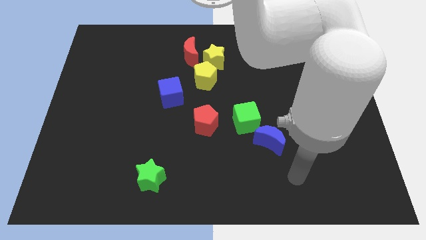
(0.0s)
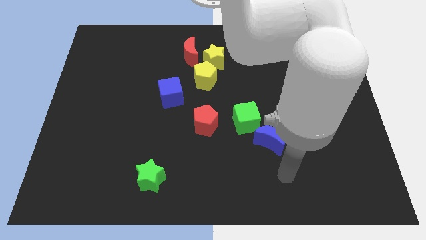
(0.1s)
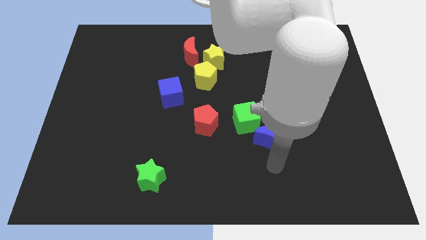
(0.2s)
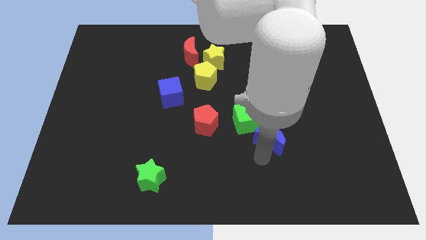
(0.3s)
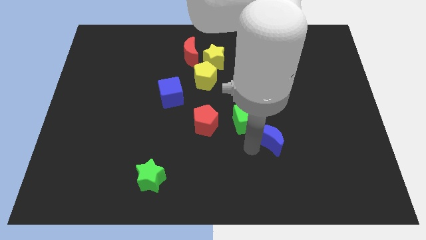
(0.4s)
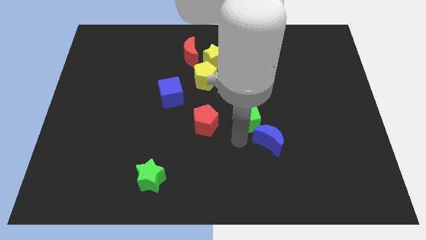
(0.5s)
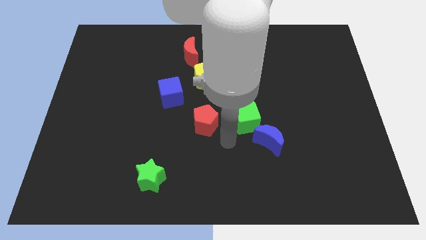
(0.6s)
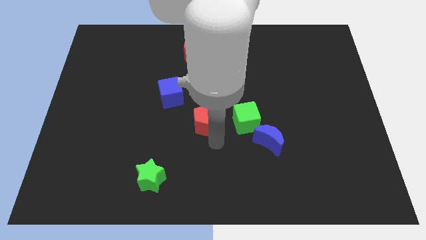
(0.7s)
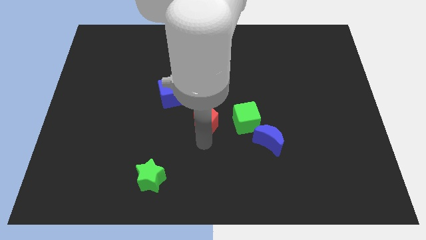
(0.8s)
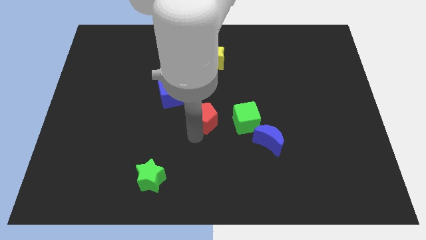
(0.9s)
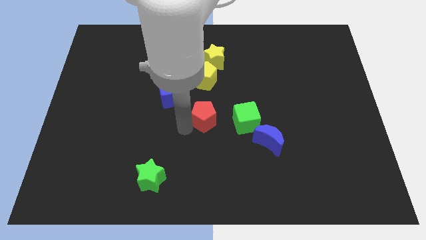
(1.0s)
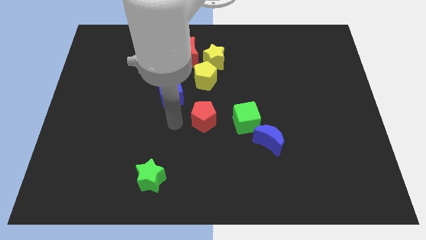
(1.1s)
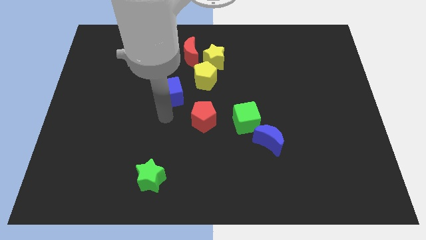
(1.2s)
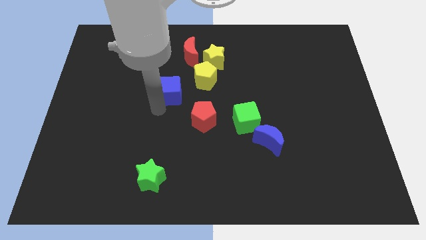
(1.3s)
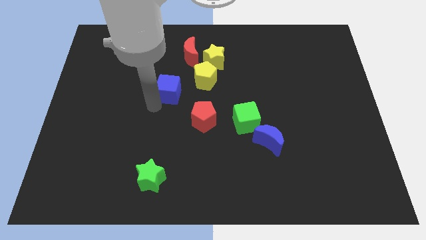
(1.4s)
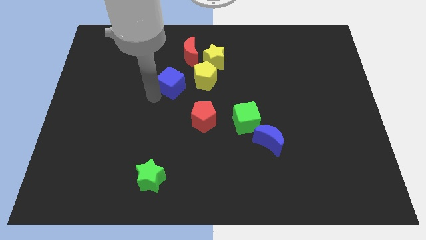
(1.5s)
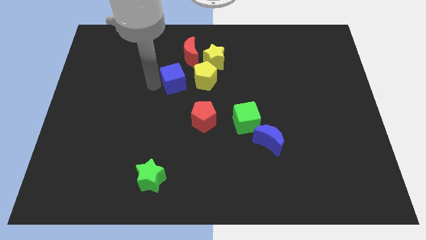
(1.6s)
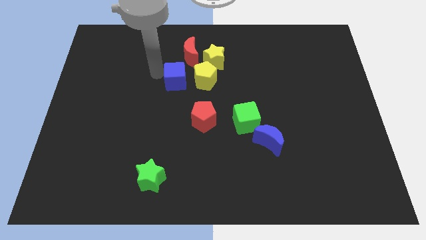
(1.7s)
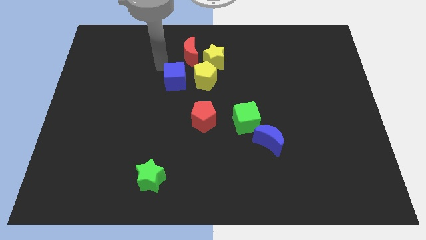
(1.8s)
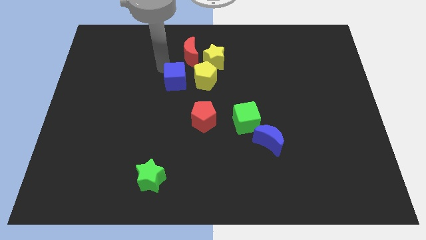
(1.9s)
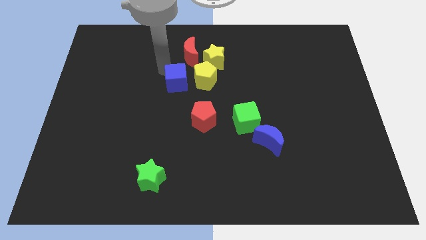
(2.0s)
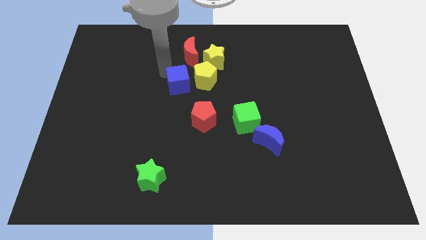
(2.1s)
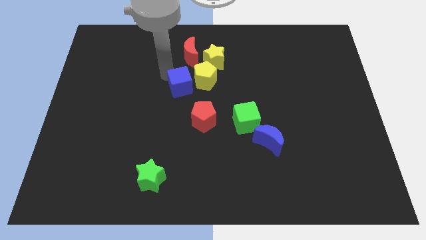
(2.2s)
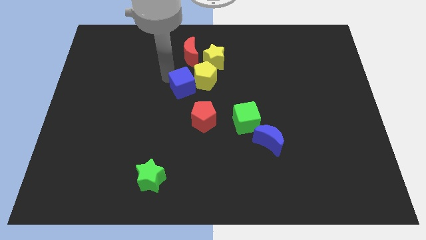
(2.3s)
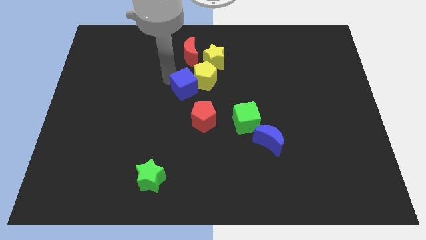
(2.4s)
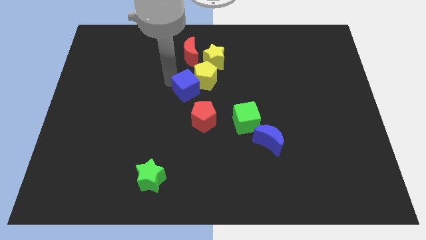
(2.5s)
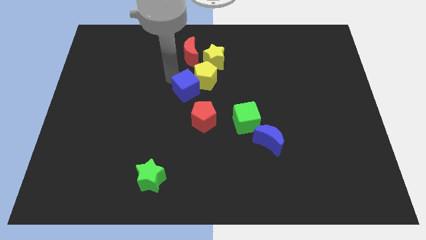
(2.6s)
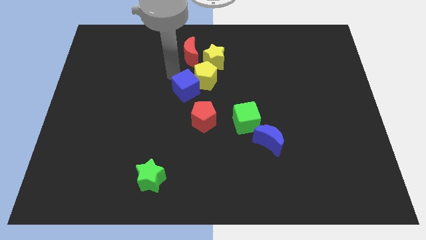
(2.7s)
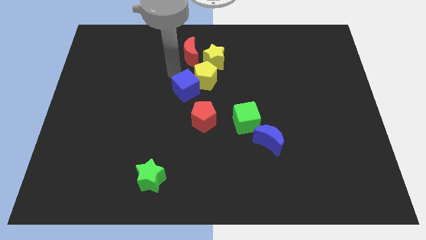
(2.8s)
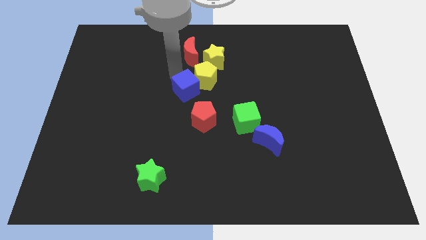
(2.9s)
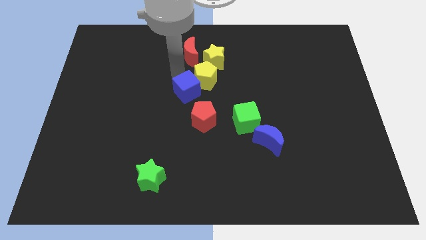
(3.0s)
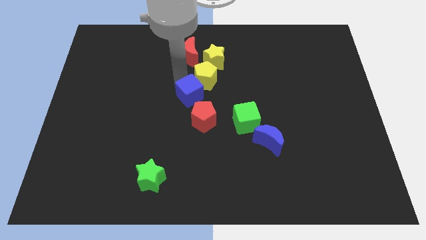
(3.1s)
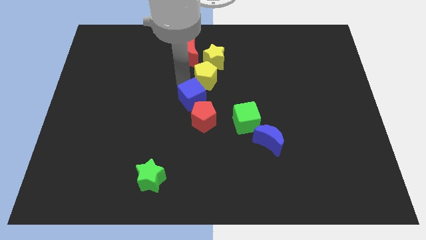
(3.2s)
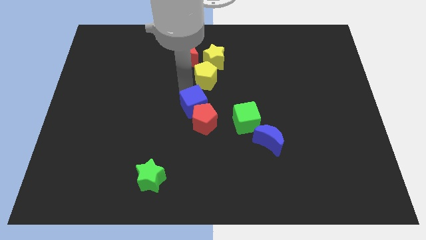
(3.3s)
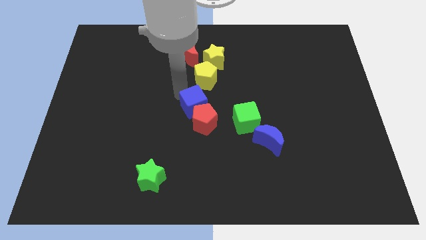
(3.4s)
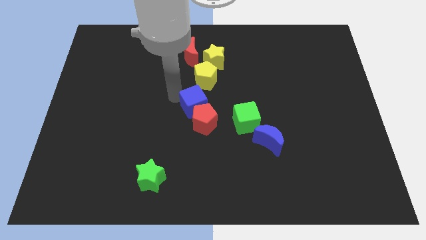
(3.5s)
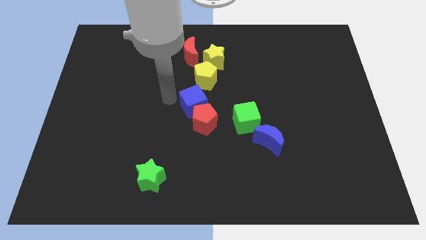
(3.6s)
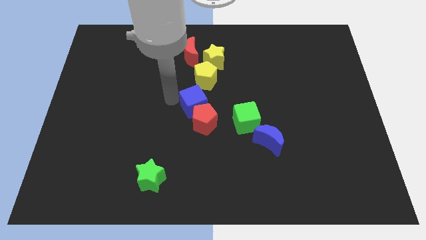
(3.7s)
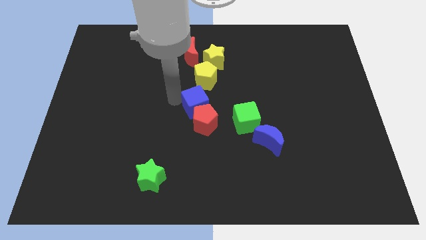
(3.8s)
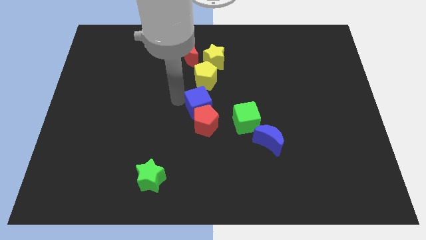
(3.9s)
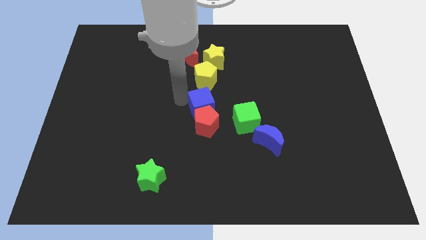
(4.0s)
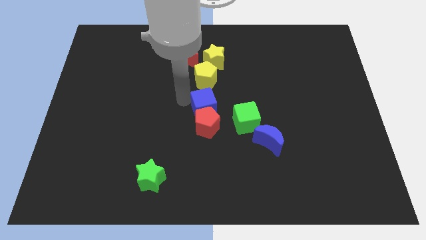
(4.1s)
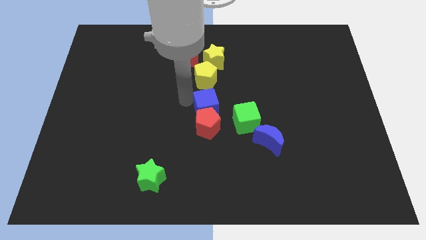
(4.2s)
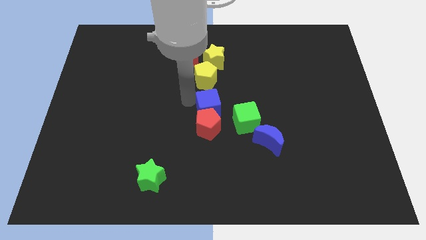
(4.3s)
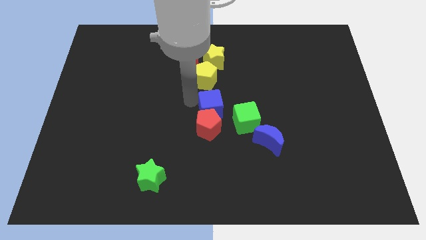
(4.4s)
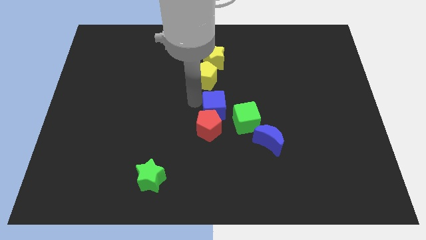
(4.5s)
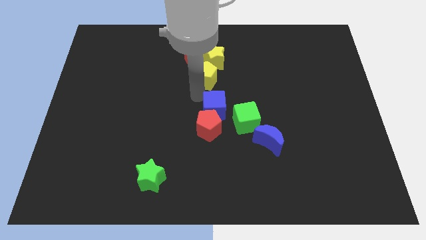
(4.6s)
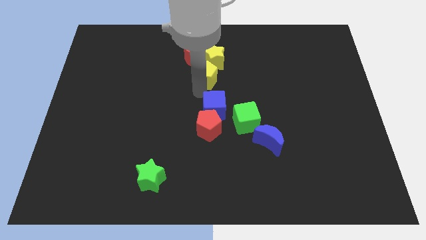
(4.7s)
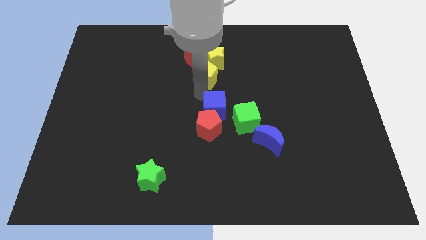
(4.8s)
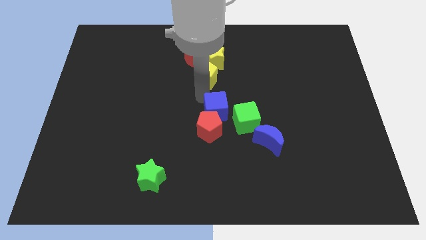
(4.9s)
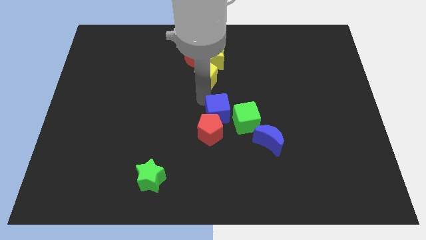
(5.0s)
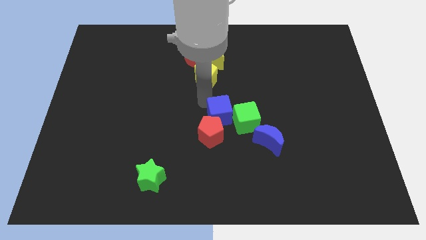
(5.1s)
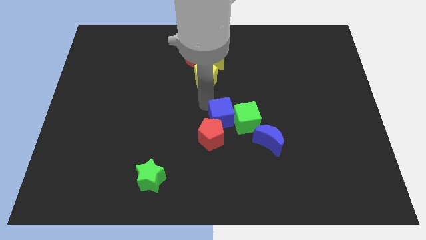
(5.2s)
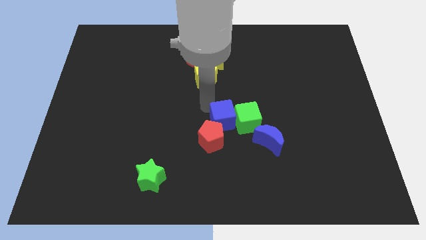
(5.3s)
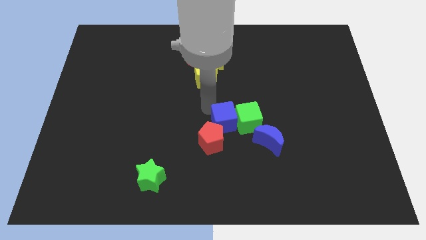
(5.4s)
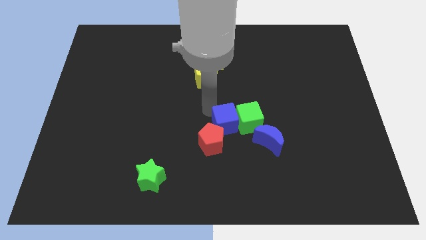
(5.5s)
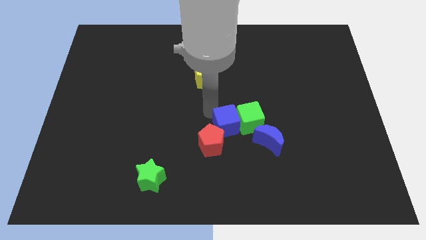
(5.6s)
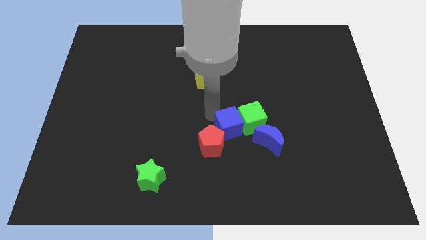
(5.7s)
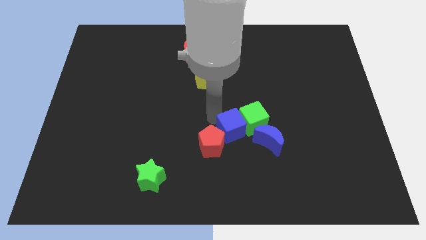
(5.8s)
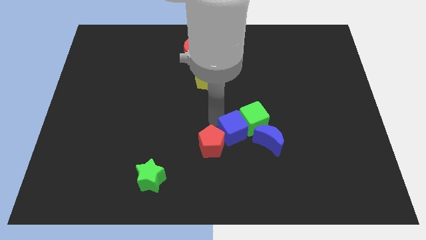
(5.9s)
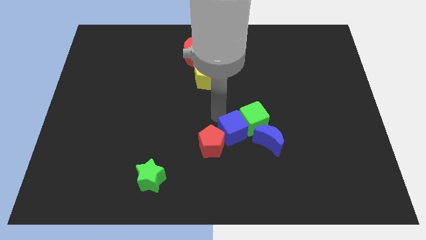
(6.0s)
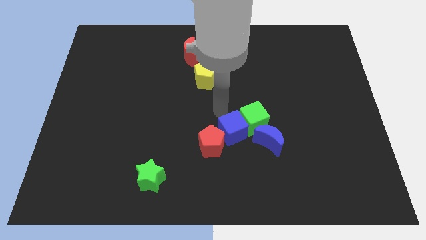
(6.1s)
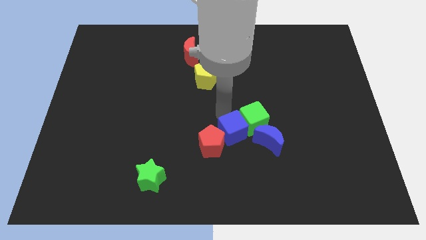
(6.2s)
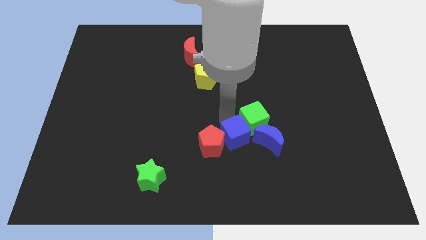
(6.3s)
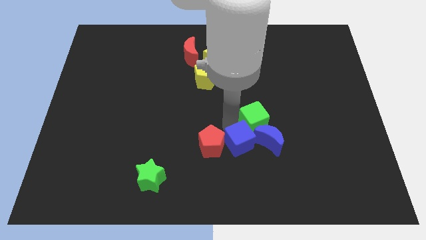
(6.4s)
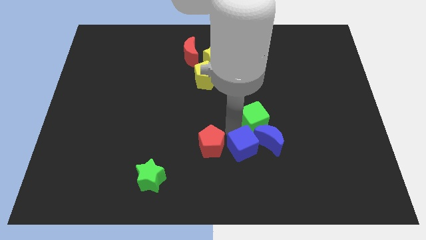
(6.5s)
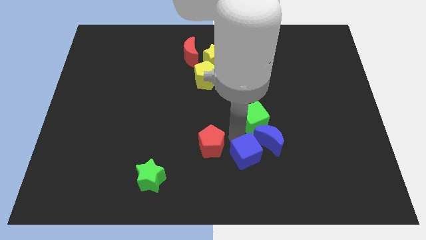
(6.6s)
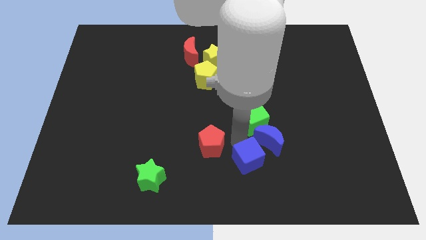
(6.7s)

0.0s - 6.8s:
move the blue cube to the bottom side of the blue moon
